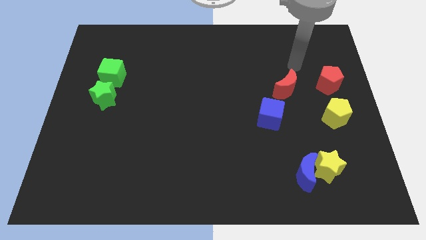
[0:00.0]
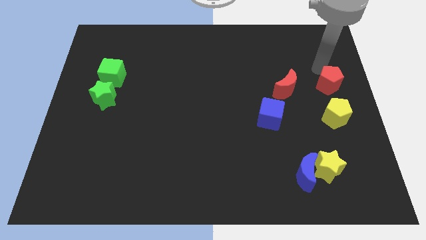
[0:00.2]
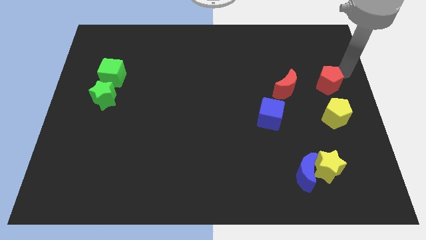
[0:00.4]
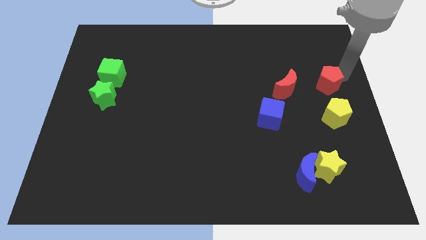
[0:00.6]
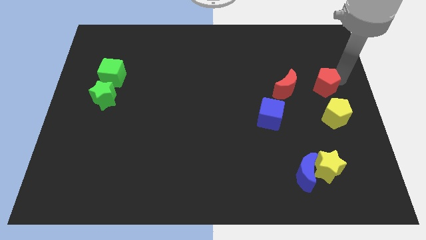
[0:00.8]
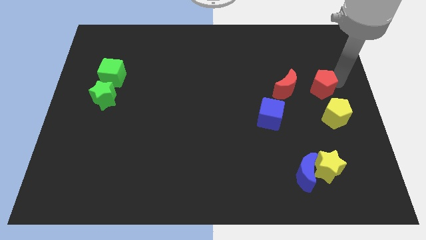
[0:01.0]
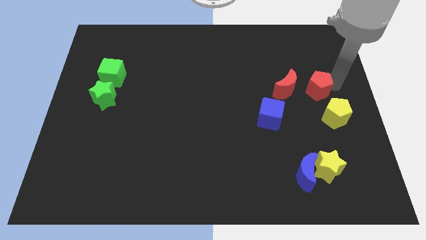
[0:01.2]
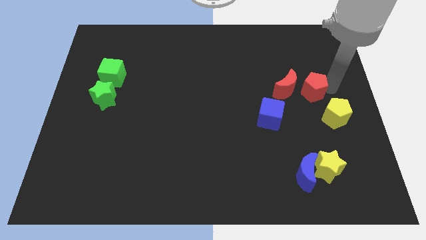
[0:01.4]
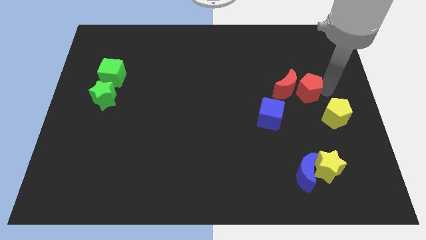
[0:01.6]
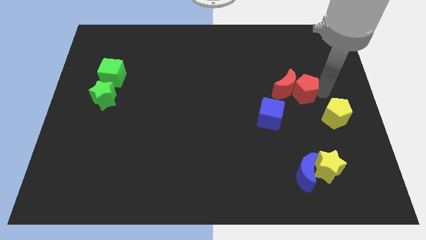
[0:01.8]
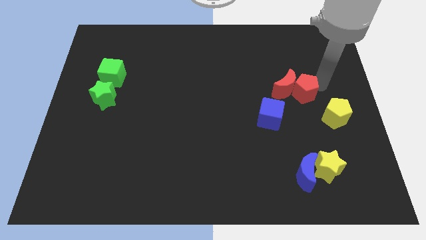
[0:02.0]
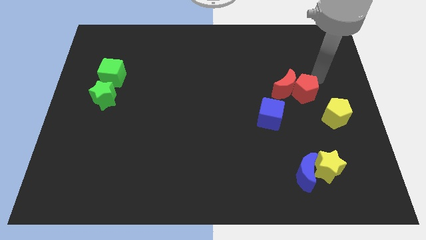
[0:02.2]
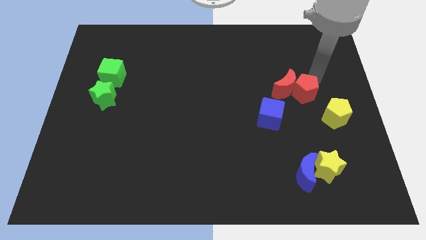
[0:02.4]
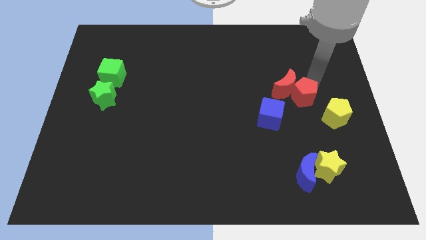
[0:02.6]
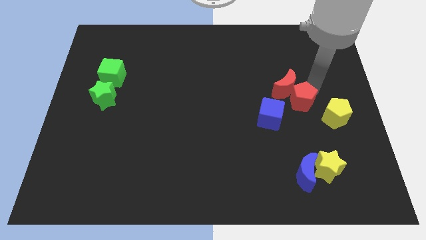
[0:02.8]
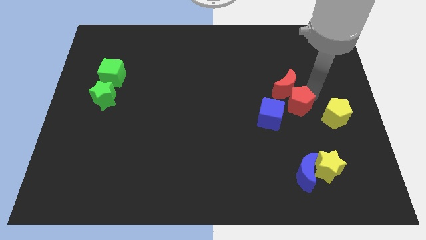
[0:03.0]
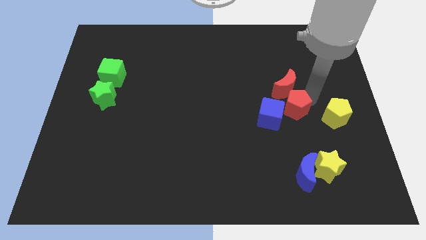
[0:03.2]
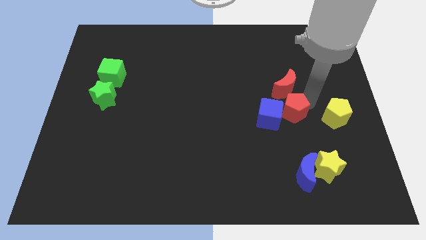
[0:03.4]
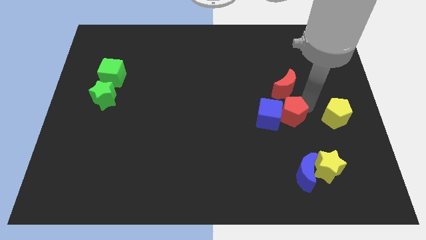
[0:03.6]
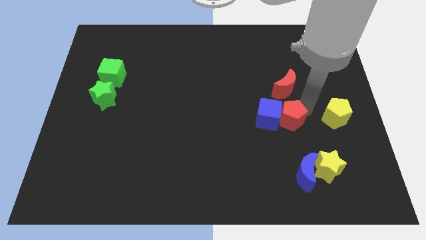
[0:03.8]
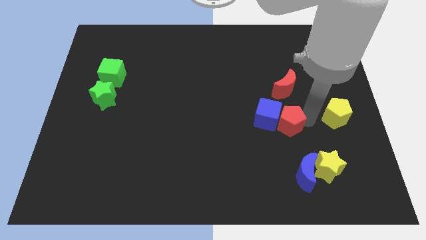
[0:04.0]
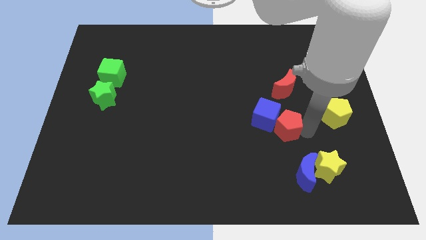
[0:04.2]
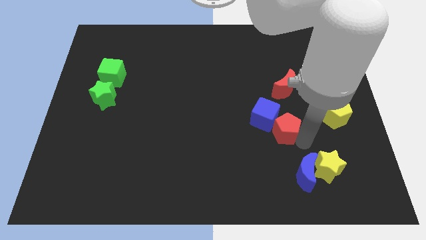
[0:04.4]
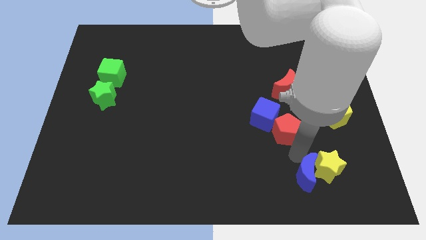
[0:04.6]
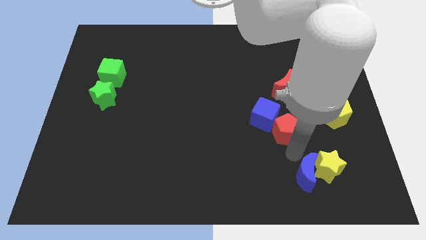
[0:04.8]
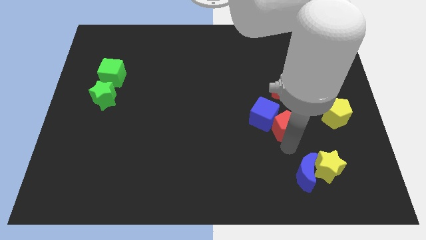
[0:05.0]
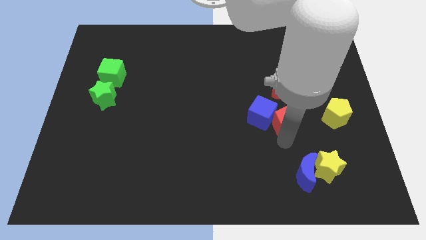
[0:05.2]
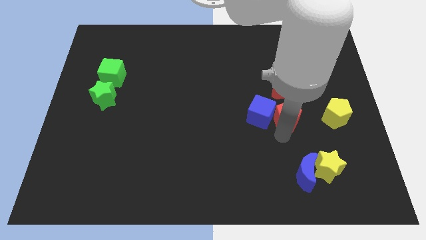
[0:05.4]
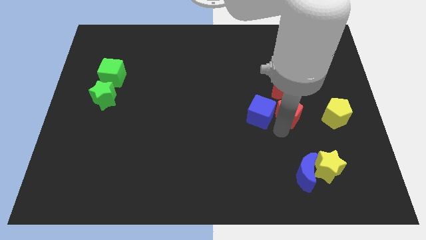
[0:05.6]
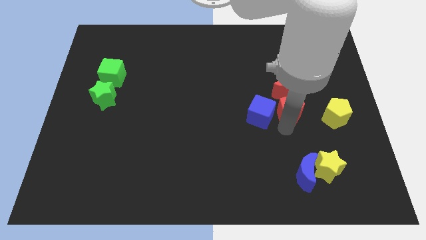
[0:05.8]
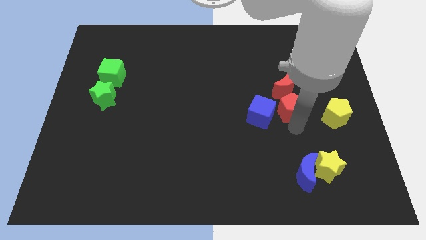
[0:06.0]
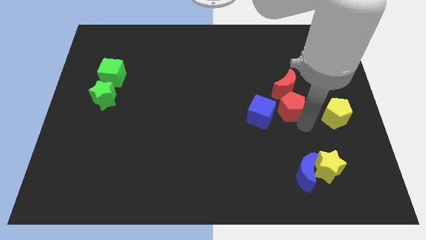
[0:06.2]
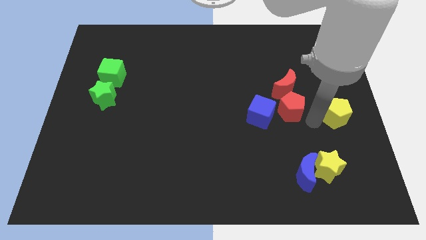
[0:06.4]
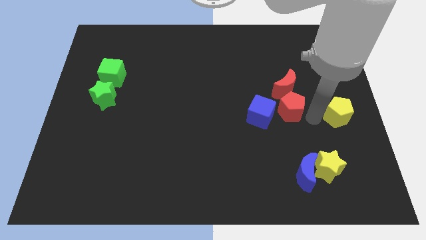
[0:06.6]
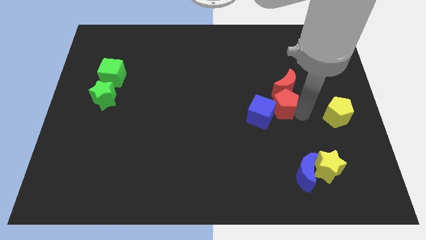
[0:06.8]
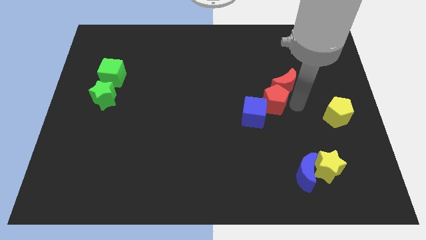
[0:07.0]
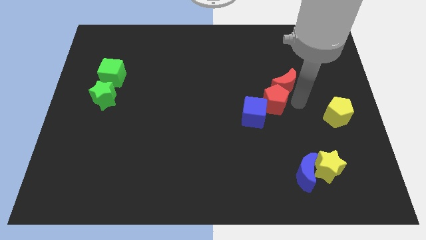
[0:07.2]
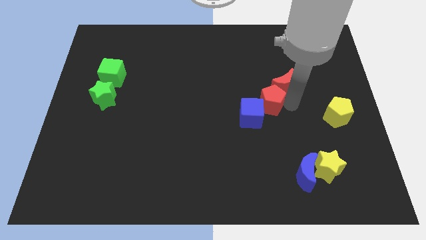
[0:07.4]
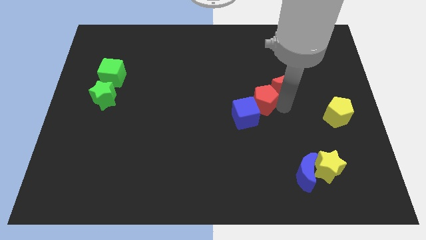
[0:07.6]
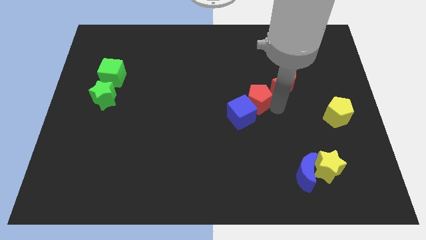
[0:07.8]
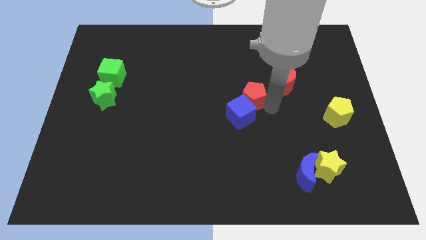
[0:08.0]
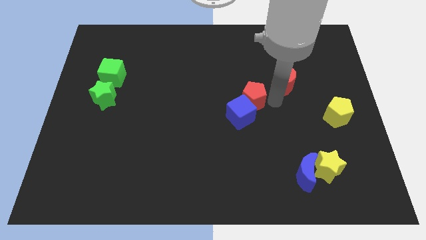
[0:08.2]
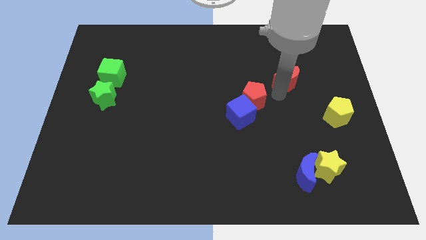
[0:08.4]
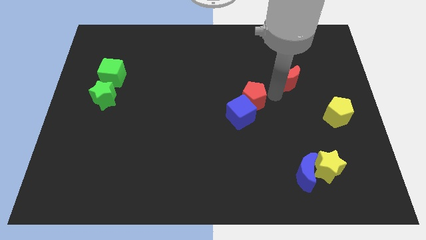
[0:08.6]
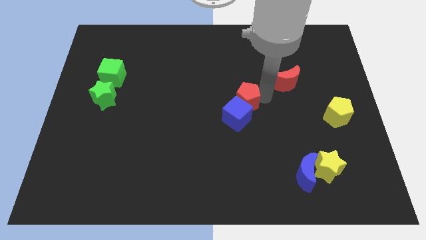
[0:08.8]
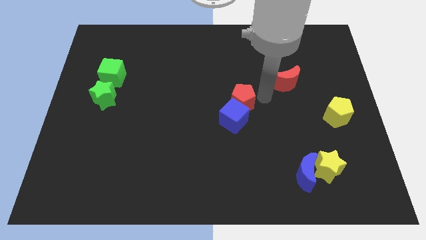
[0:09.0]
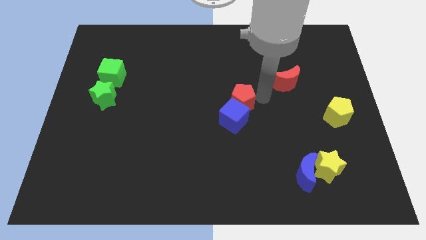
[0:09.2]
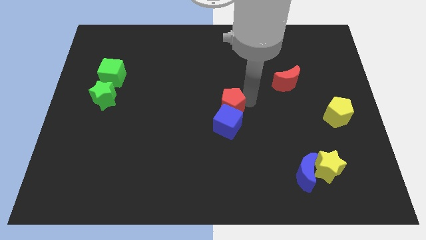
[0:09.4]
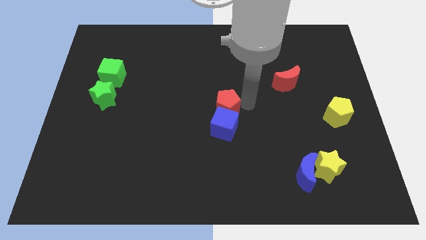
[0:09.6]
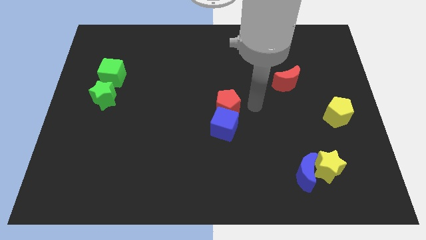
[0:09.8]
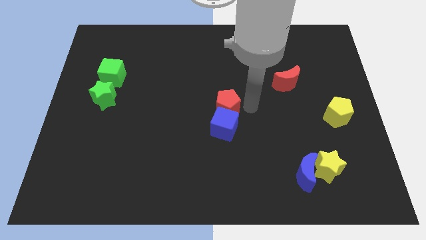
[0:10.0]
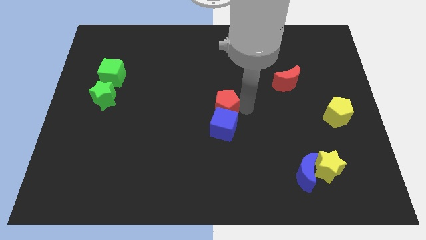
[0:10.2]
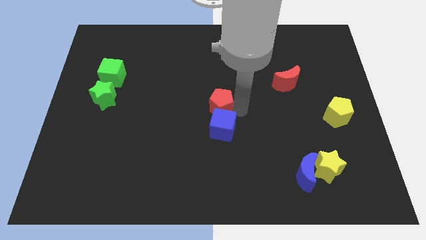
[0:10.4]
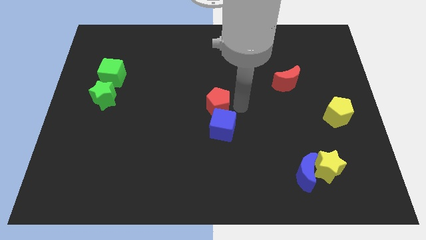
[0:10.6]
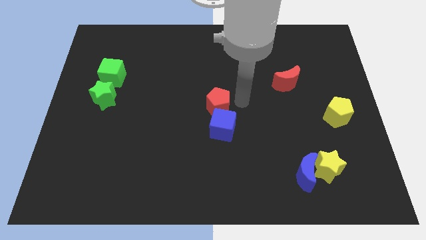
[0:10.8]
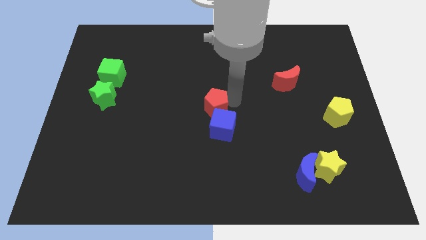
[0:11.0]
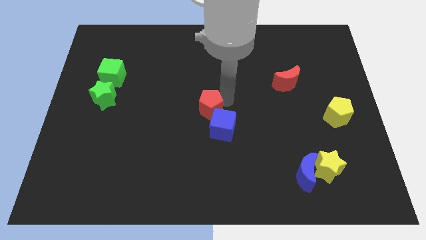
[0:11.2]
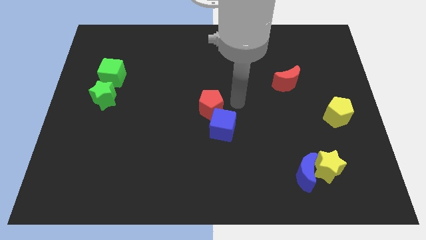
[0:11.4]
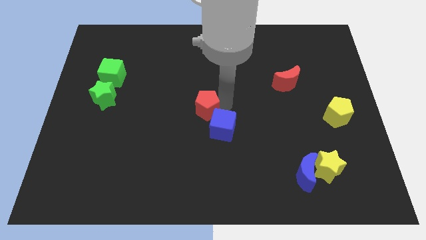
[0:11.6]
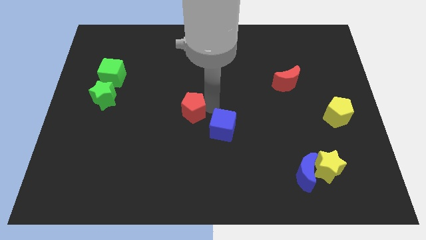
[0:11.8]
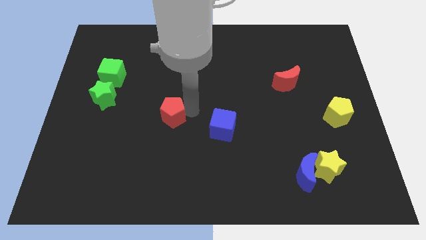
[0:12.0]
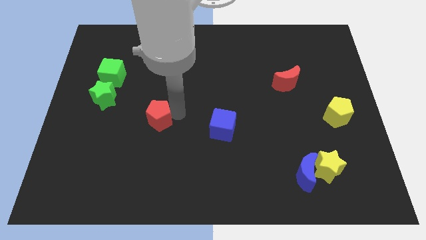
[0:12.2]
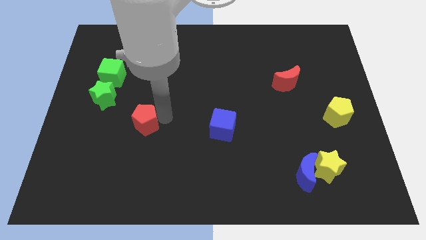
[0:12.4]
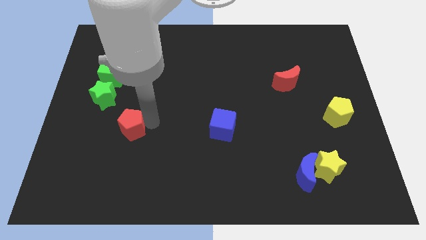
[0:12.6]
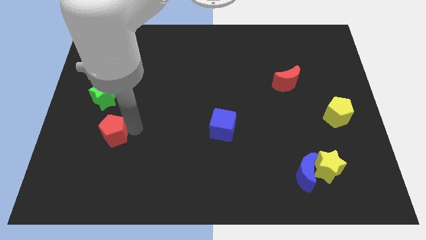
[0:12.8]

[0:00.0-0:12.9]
push the red pentagon below the green star

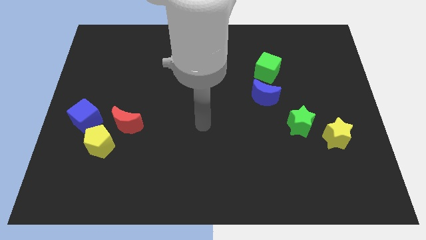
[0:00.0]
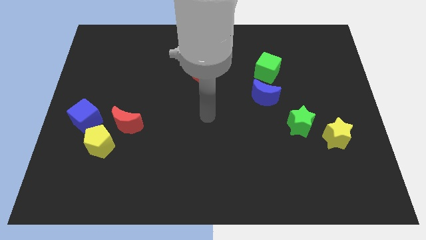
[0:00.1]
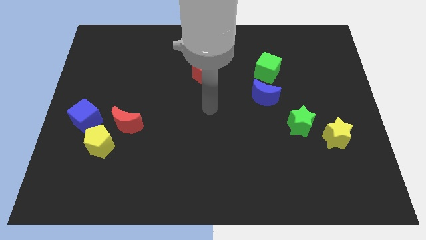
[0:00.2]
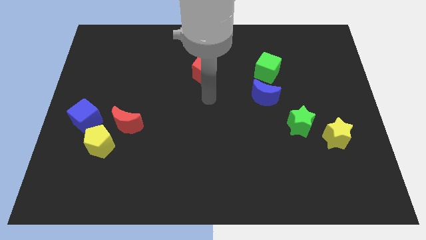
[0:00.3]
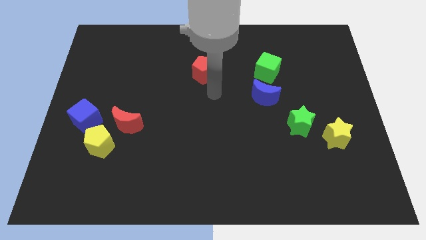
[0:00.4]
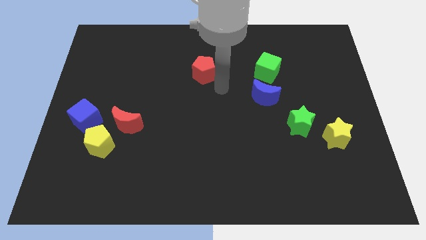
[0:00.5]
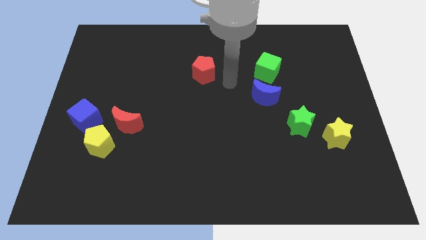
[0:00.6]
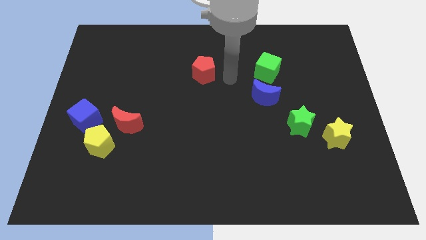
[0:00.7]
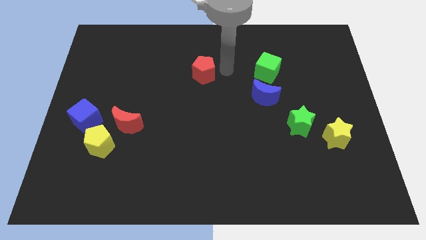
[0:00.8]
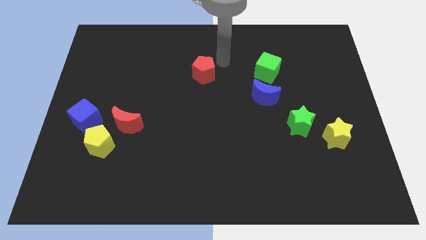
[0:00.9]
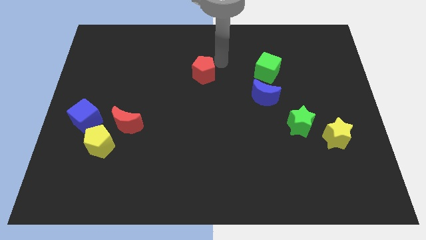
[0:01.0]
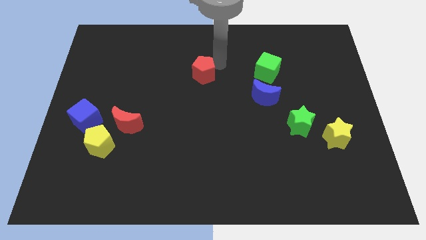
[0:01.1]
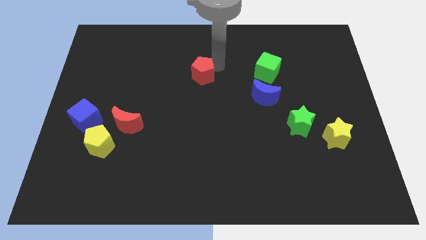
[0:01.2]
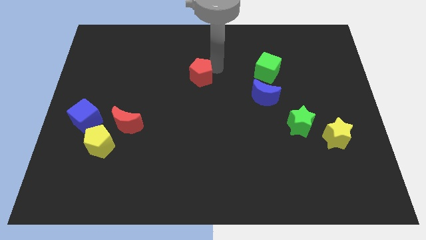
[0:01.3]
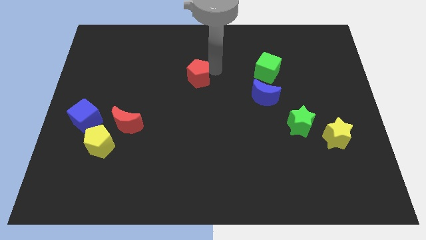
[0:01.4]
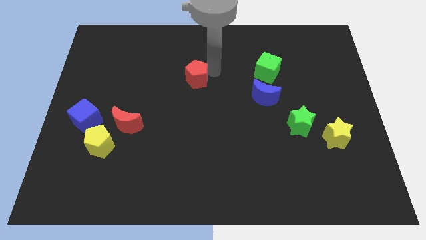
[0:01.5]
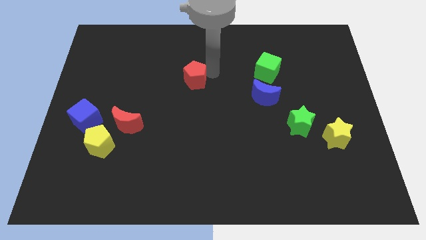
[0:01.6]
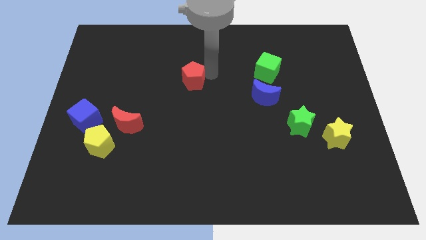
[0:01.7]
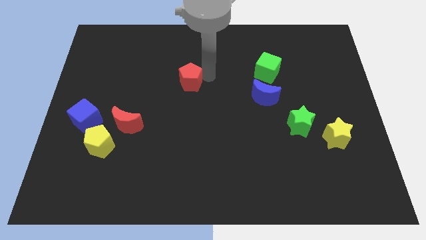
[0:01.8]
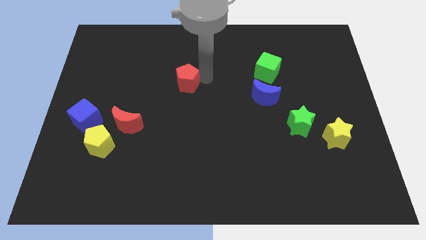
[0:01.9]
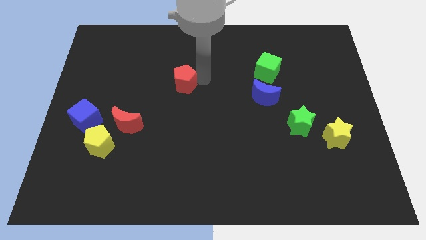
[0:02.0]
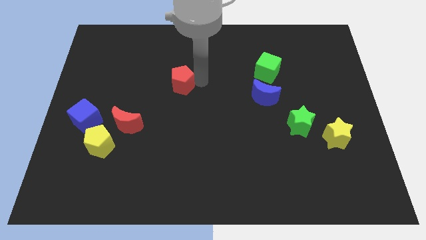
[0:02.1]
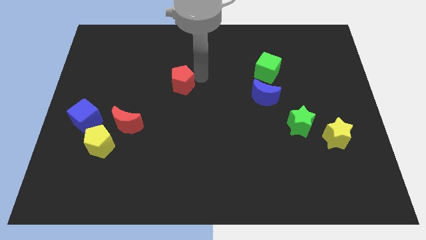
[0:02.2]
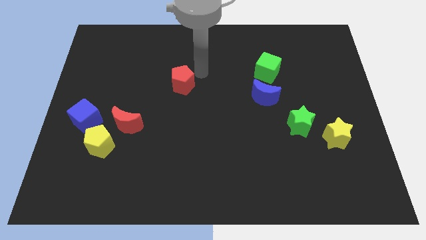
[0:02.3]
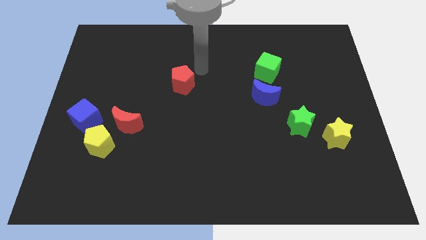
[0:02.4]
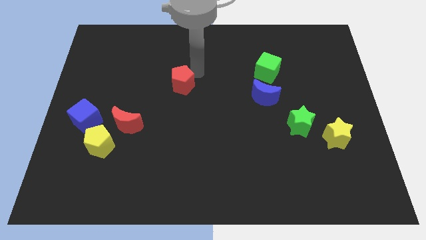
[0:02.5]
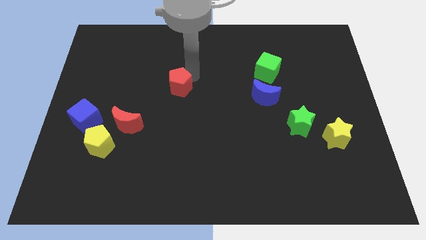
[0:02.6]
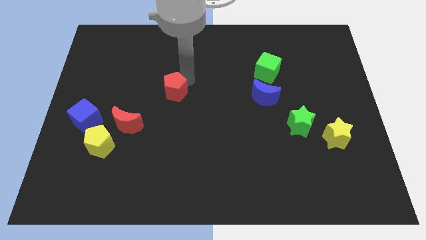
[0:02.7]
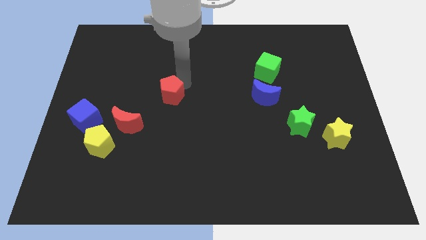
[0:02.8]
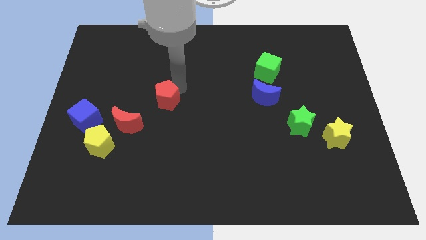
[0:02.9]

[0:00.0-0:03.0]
move the red pentagon to the top right side of the red moon
